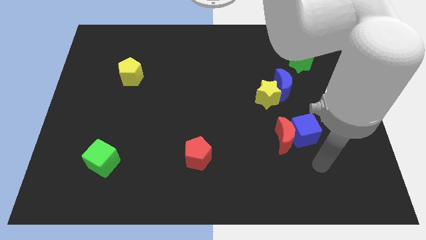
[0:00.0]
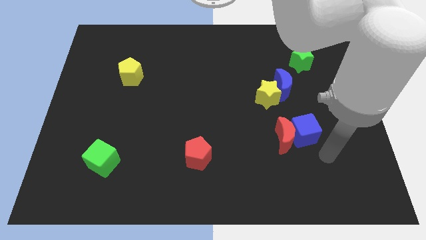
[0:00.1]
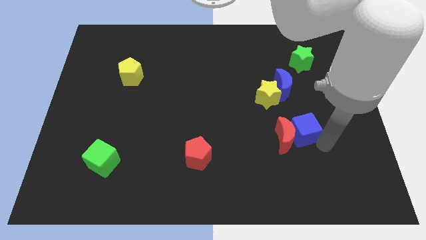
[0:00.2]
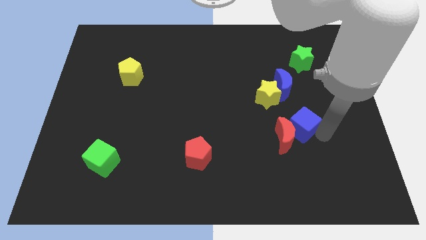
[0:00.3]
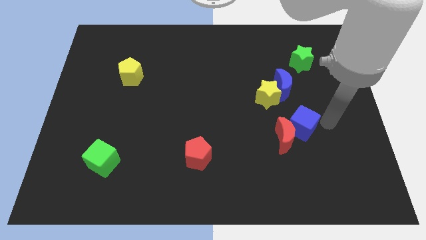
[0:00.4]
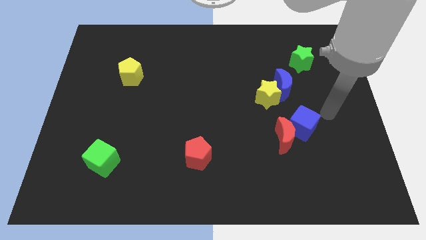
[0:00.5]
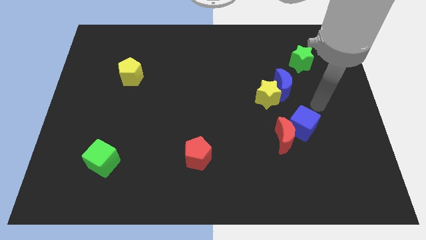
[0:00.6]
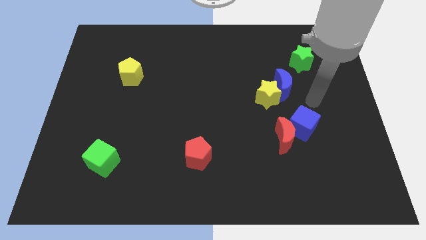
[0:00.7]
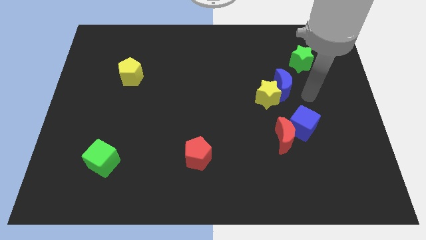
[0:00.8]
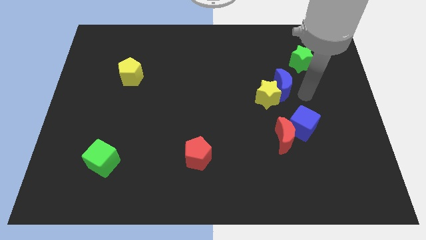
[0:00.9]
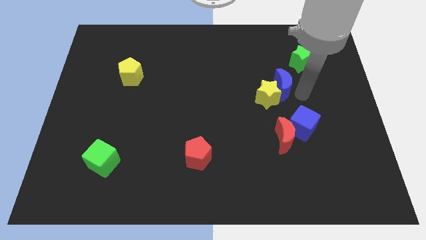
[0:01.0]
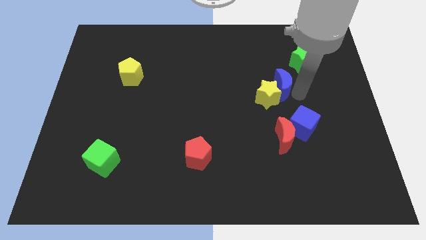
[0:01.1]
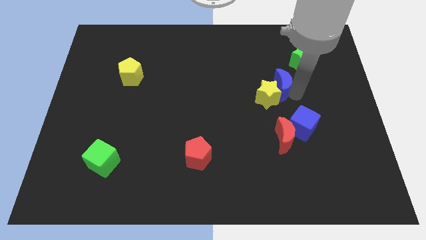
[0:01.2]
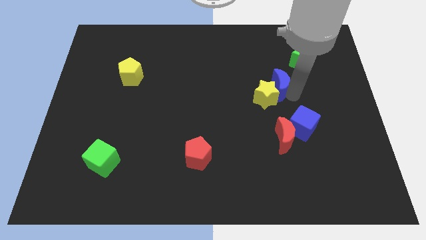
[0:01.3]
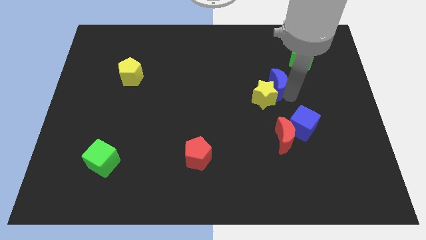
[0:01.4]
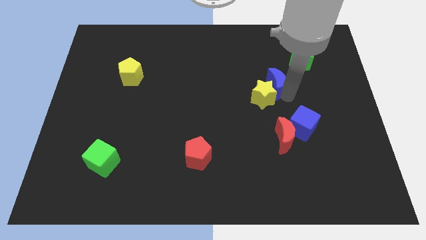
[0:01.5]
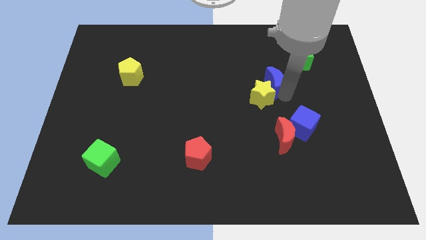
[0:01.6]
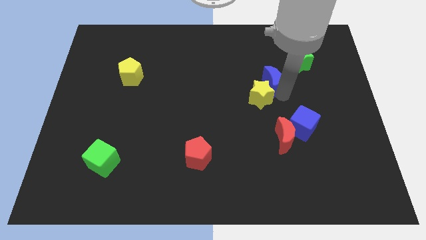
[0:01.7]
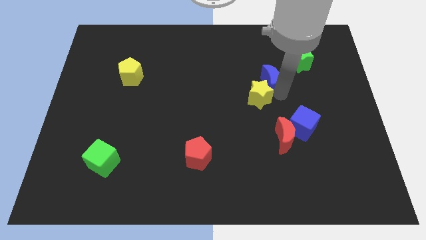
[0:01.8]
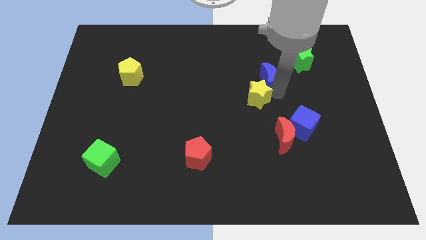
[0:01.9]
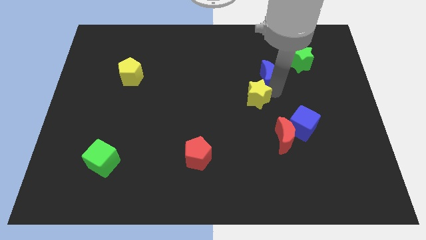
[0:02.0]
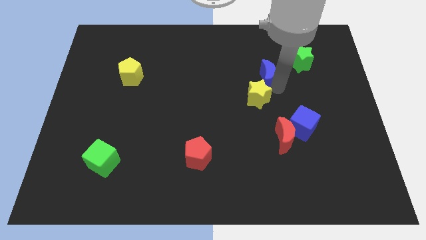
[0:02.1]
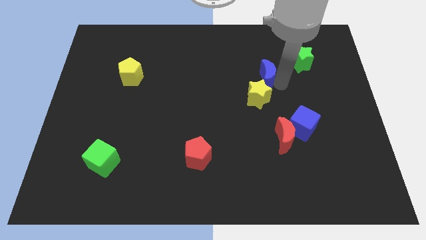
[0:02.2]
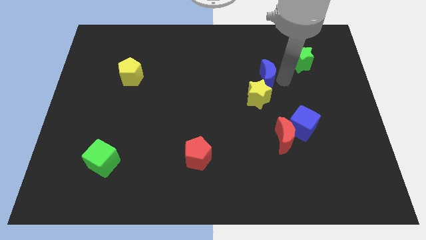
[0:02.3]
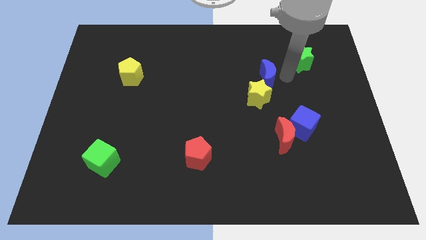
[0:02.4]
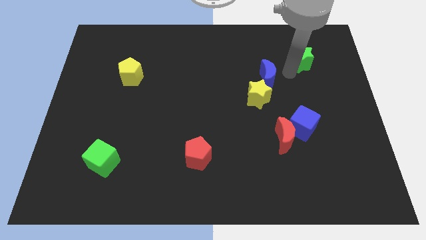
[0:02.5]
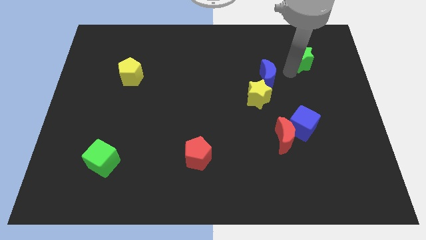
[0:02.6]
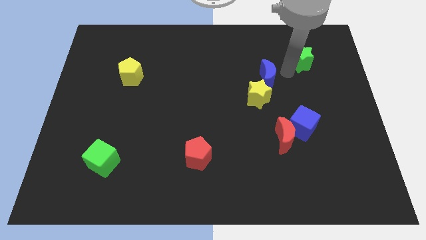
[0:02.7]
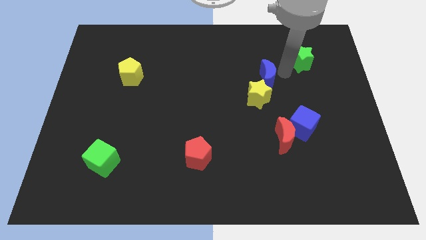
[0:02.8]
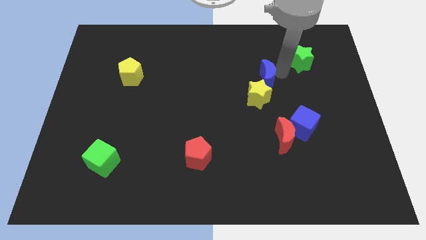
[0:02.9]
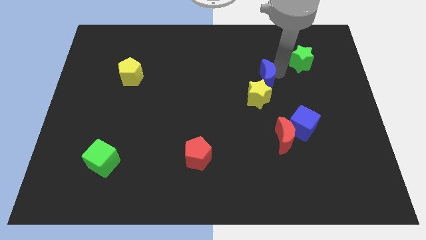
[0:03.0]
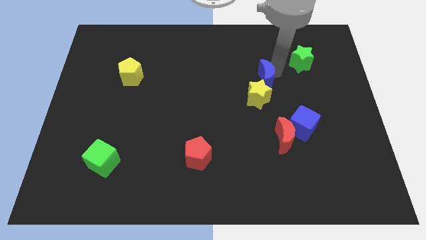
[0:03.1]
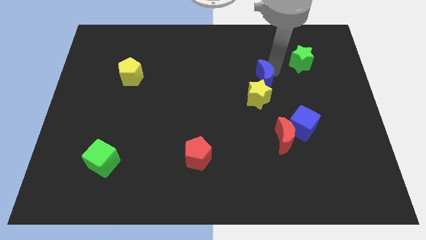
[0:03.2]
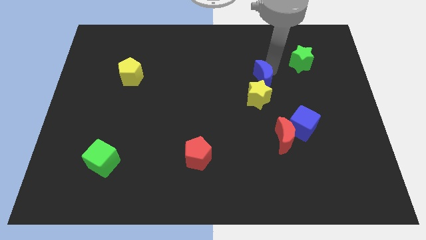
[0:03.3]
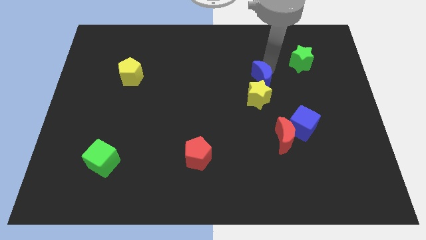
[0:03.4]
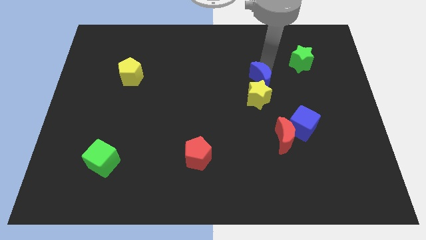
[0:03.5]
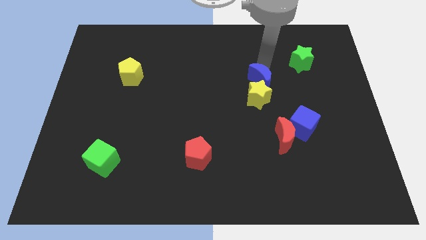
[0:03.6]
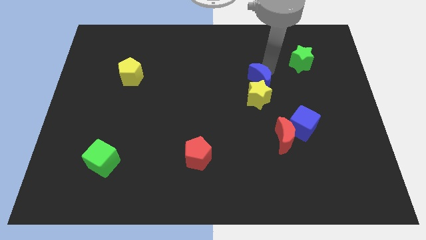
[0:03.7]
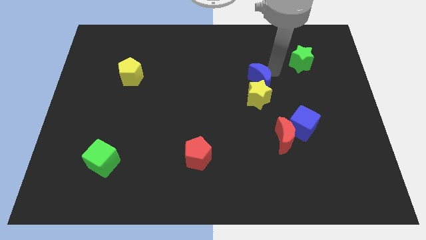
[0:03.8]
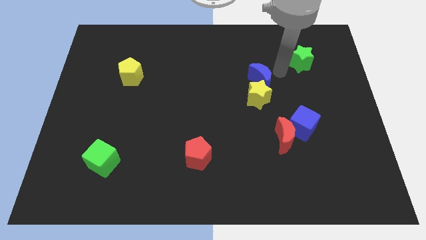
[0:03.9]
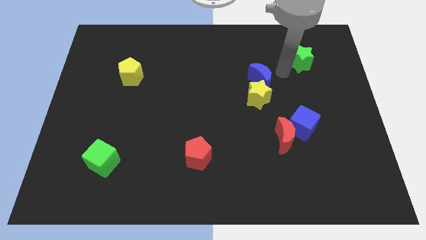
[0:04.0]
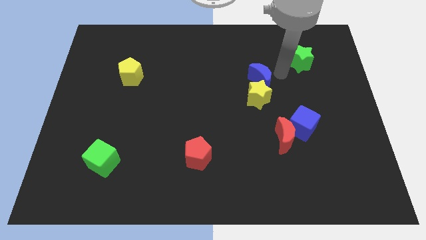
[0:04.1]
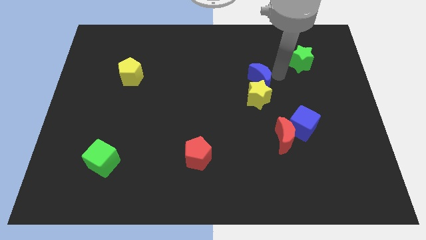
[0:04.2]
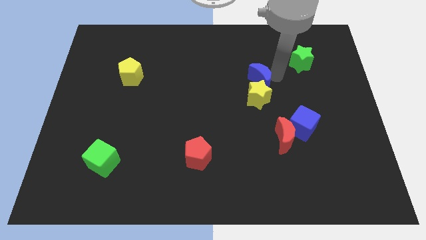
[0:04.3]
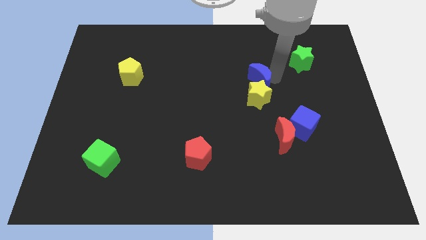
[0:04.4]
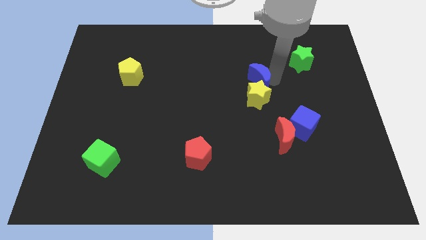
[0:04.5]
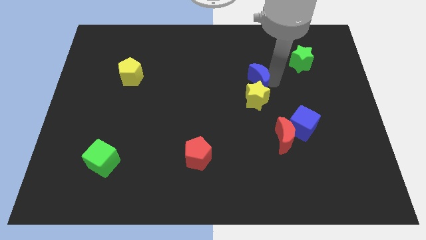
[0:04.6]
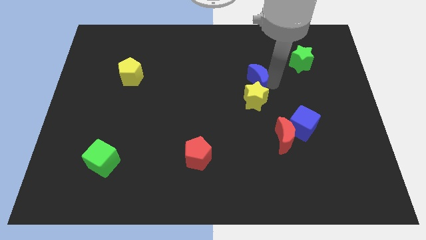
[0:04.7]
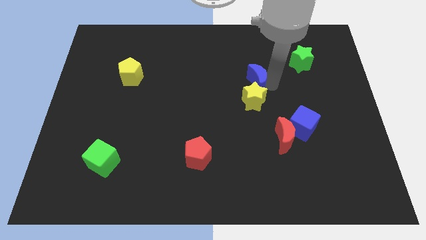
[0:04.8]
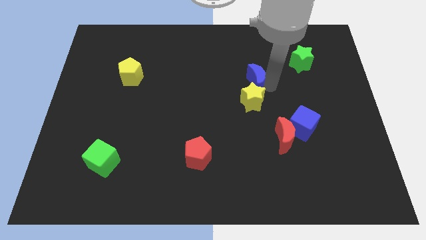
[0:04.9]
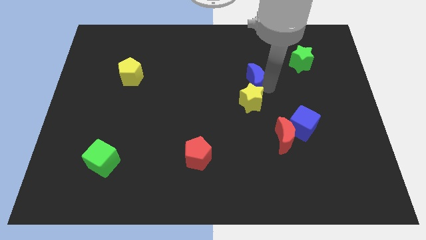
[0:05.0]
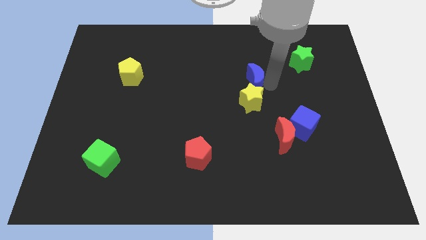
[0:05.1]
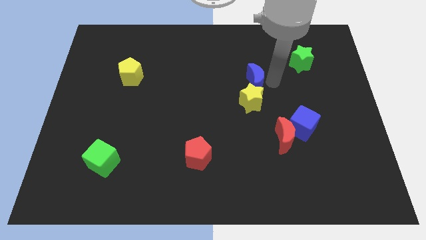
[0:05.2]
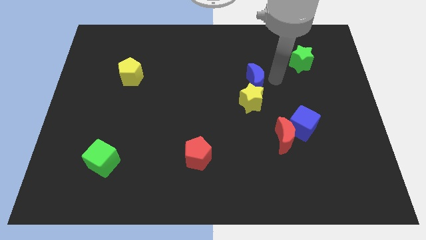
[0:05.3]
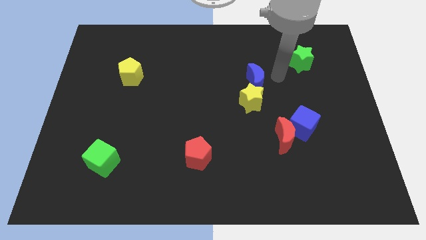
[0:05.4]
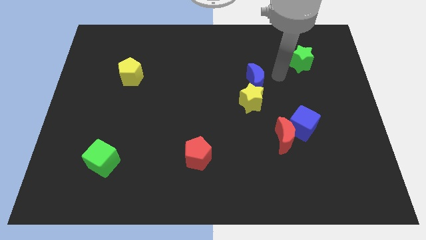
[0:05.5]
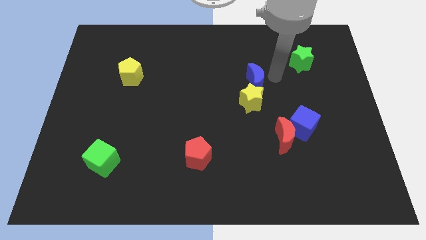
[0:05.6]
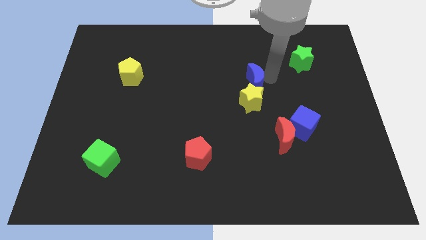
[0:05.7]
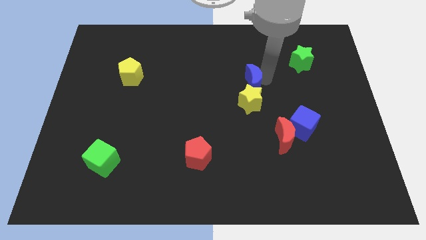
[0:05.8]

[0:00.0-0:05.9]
push the blue moon a little bit to the left

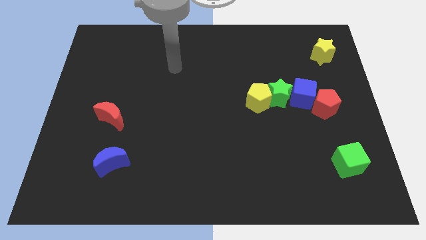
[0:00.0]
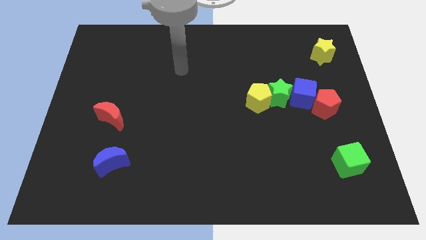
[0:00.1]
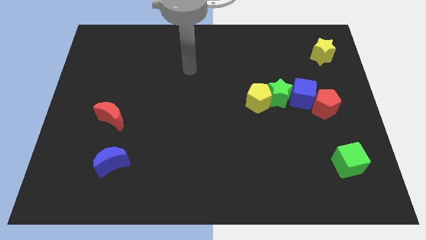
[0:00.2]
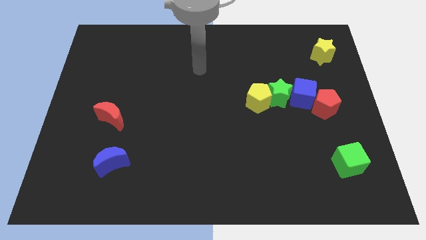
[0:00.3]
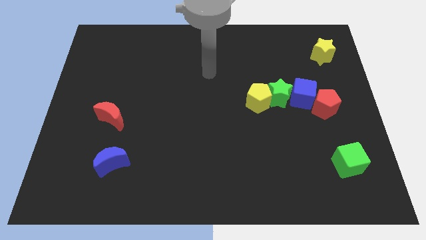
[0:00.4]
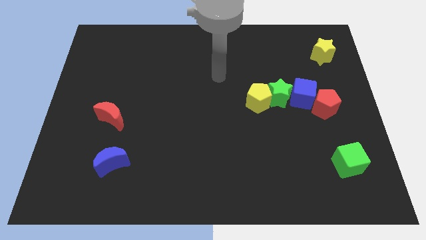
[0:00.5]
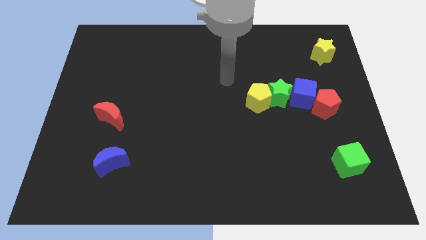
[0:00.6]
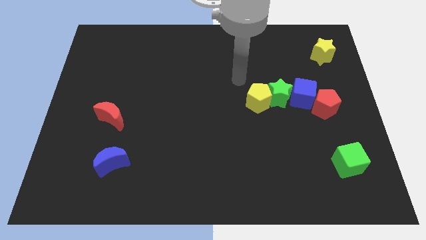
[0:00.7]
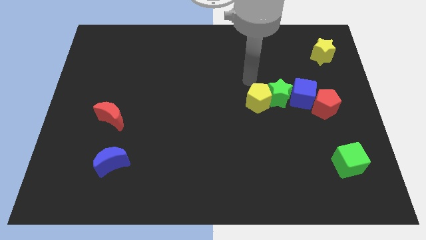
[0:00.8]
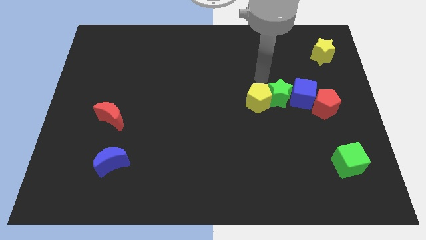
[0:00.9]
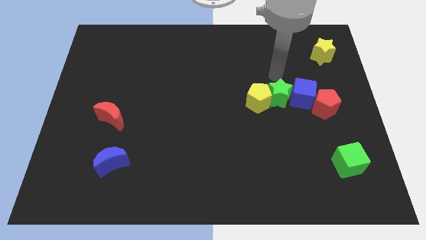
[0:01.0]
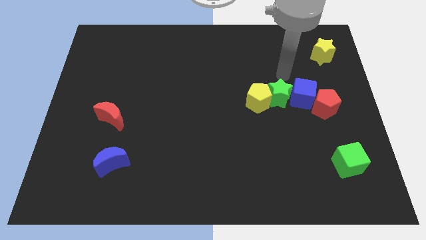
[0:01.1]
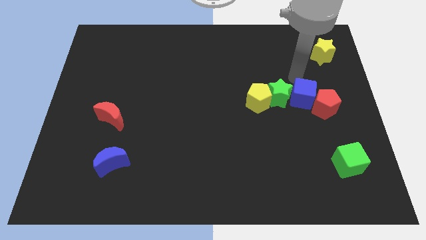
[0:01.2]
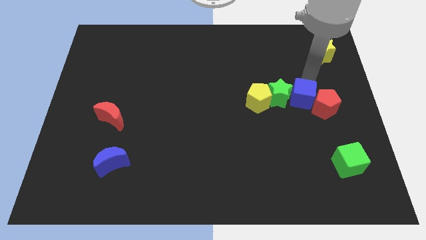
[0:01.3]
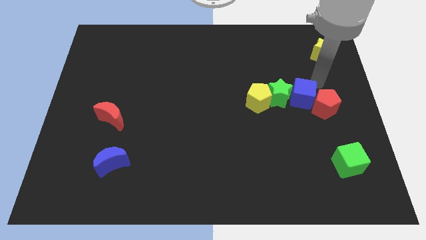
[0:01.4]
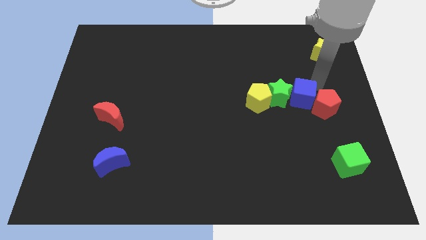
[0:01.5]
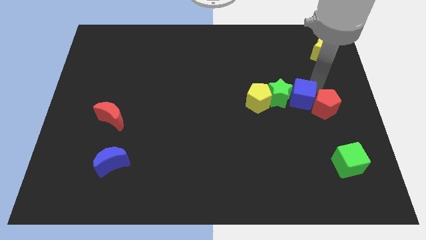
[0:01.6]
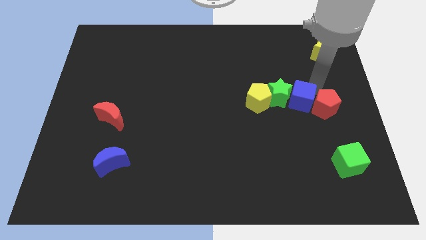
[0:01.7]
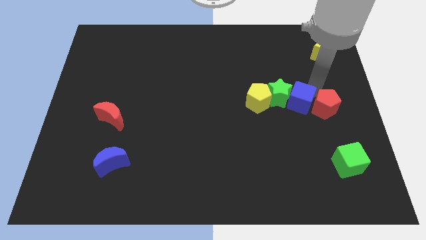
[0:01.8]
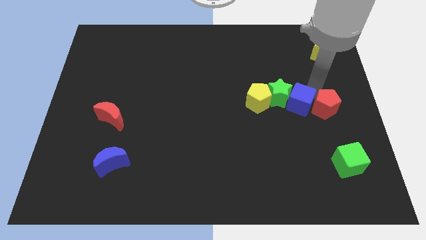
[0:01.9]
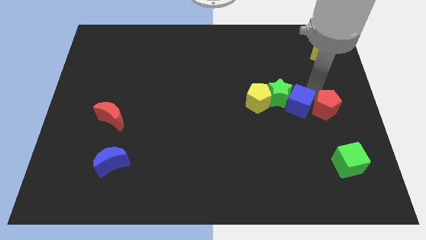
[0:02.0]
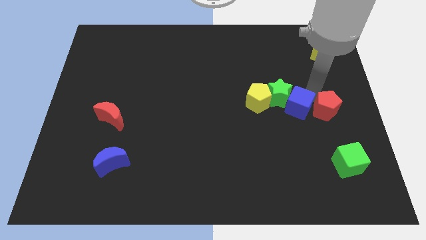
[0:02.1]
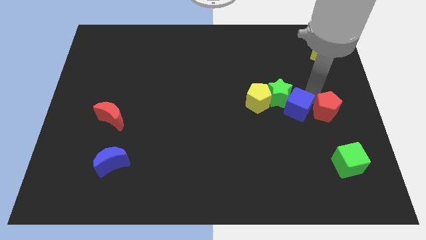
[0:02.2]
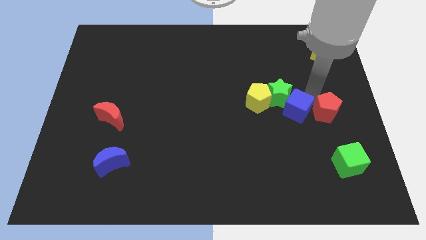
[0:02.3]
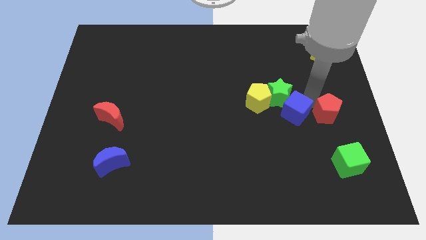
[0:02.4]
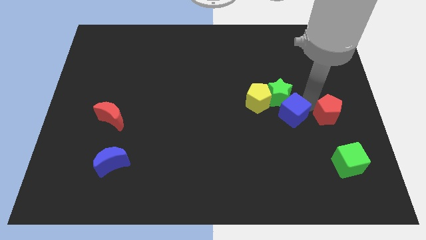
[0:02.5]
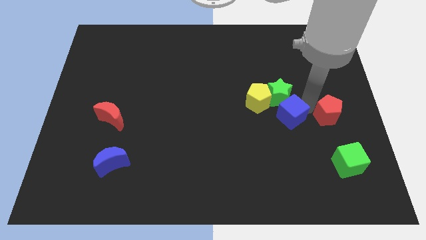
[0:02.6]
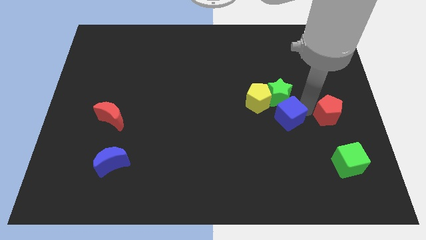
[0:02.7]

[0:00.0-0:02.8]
push the blue cube a little bit downwards and then to the left
